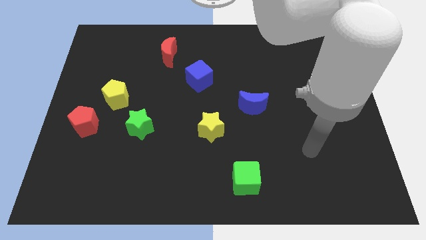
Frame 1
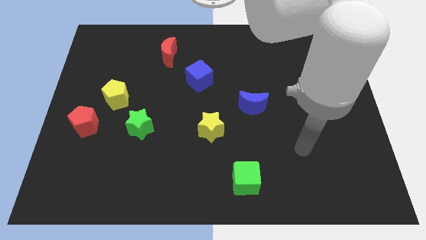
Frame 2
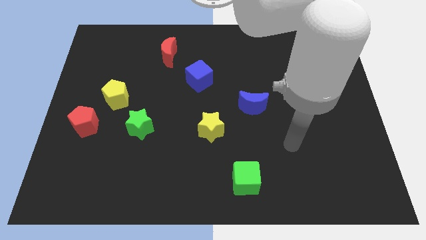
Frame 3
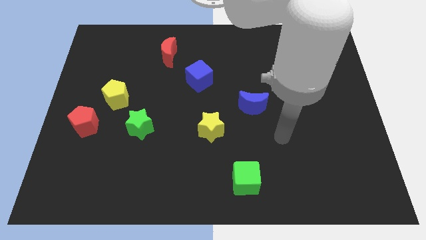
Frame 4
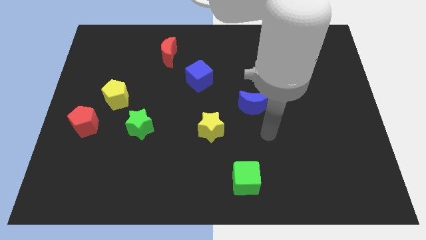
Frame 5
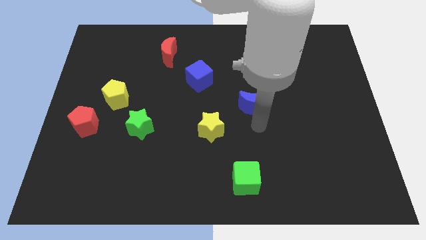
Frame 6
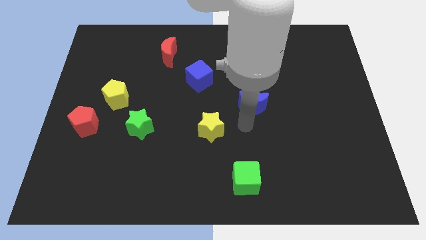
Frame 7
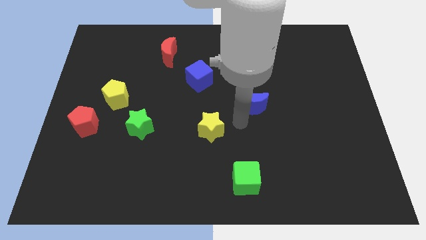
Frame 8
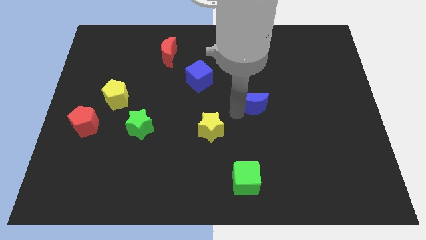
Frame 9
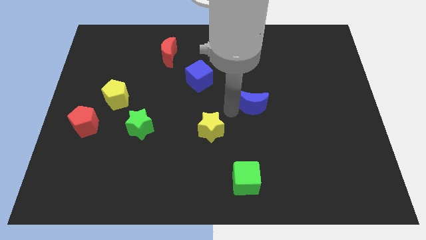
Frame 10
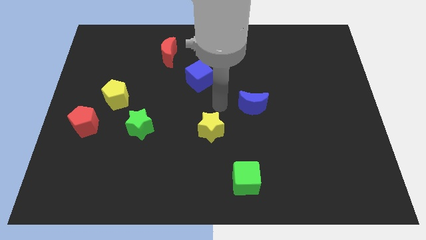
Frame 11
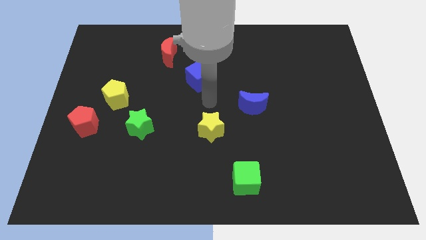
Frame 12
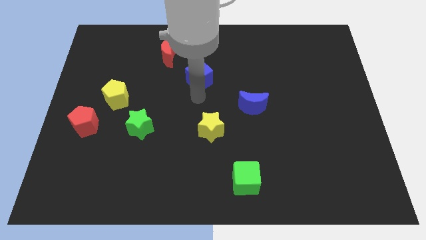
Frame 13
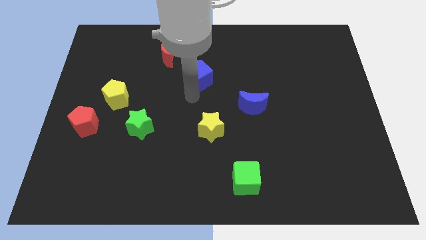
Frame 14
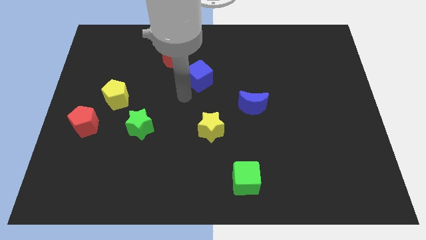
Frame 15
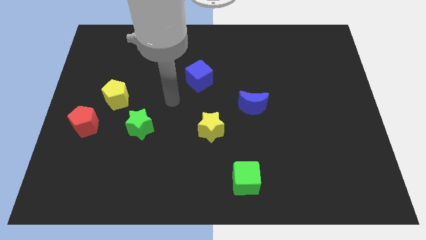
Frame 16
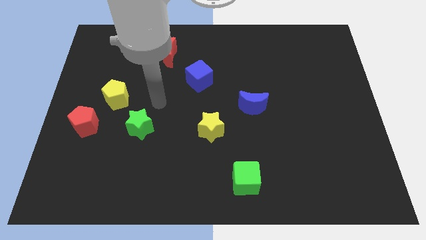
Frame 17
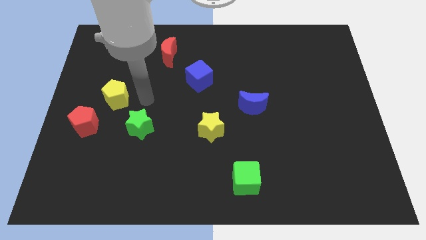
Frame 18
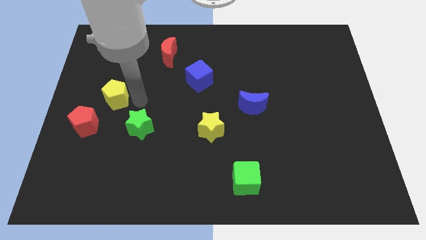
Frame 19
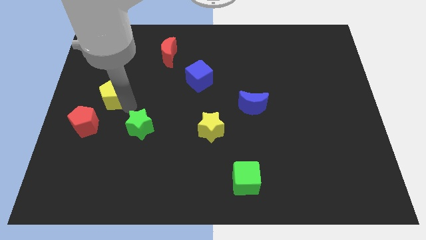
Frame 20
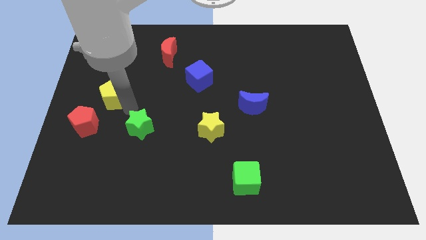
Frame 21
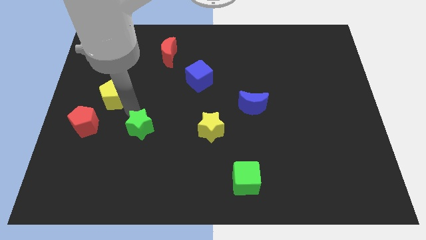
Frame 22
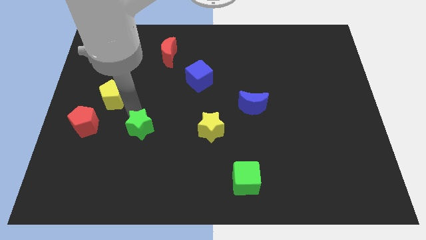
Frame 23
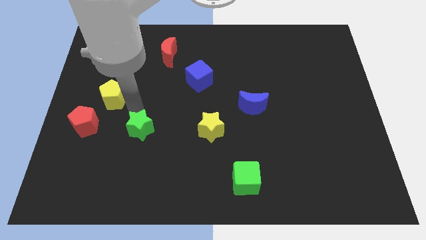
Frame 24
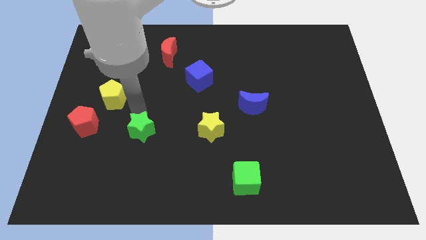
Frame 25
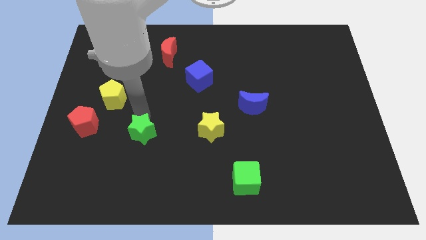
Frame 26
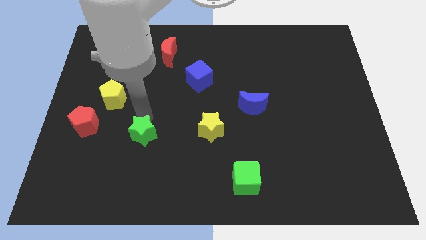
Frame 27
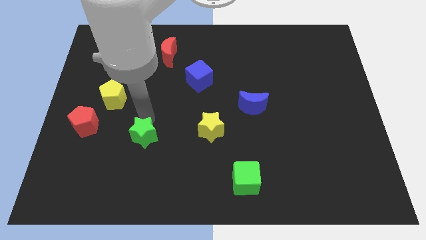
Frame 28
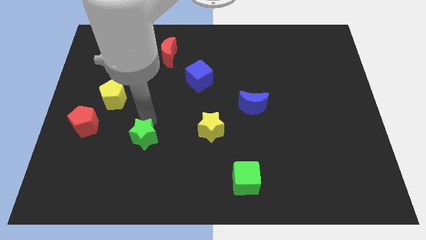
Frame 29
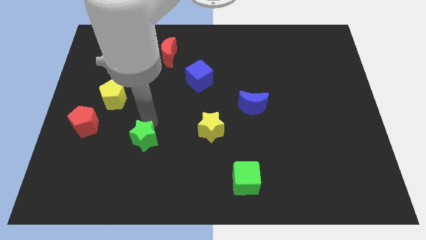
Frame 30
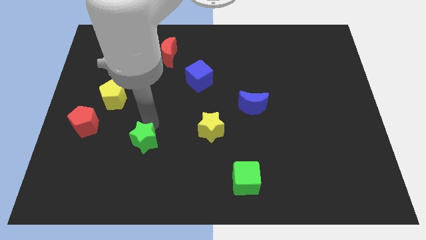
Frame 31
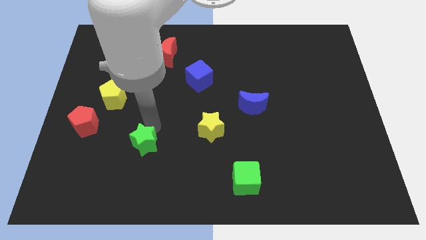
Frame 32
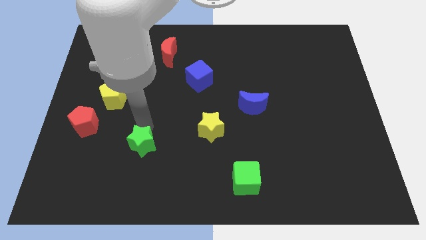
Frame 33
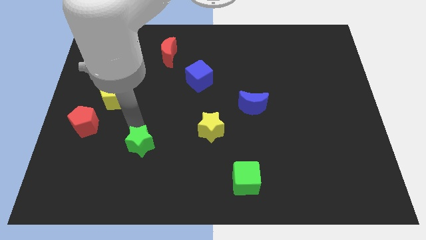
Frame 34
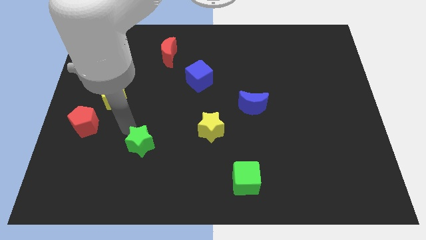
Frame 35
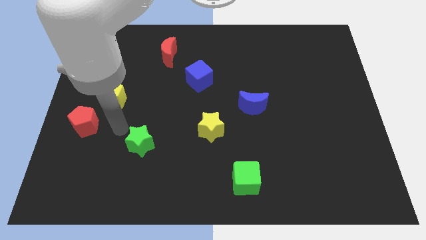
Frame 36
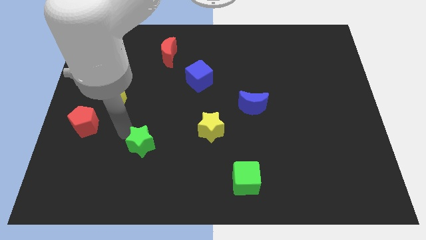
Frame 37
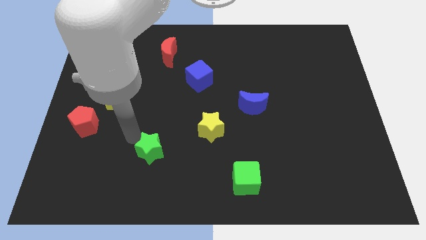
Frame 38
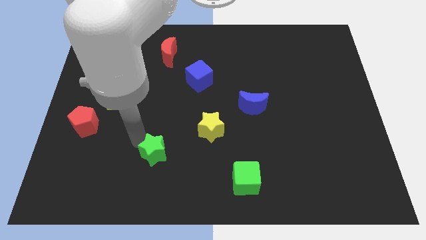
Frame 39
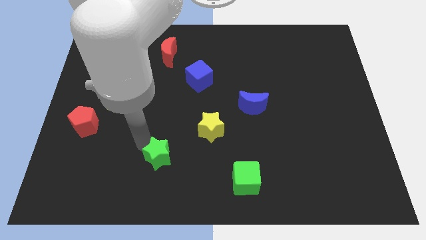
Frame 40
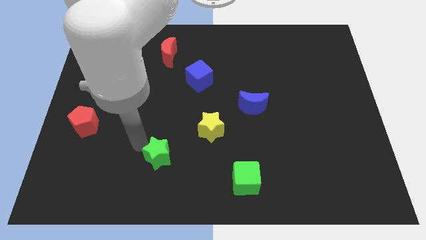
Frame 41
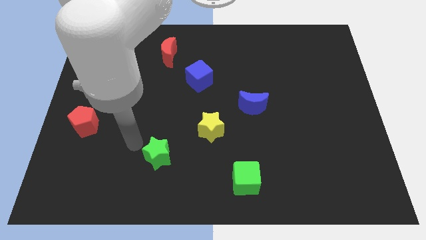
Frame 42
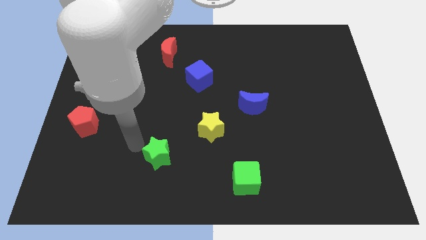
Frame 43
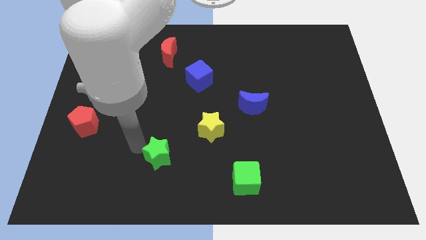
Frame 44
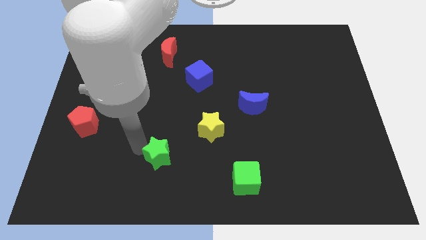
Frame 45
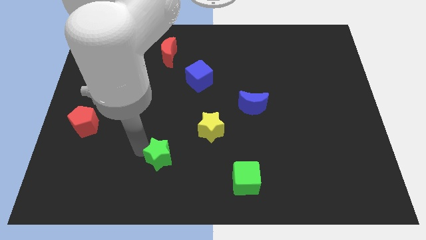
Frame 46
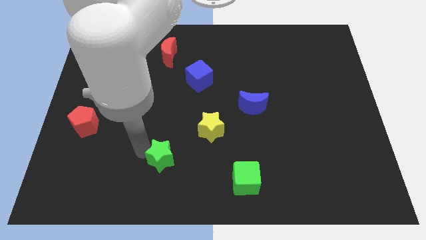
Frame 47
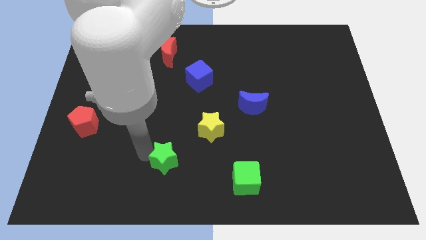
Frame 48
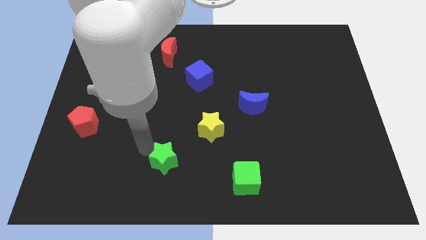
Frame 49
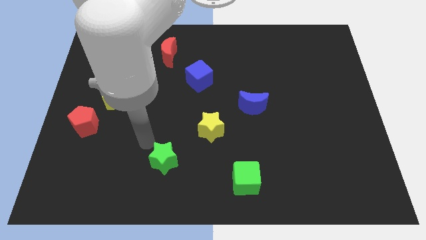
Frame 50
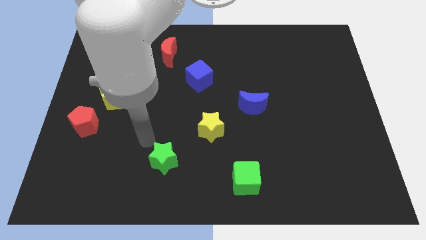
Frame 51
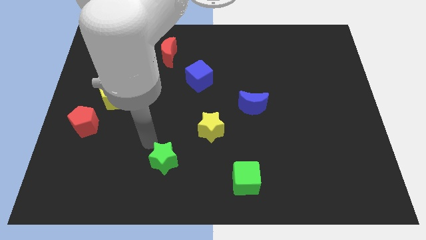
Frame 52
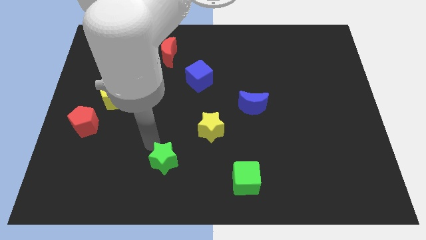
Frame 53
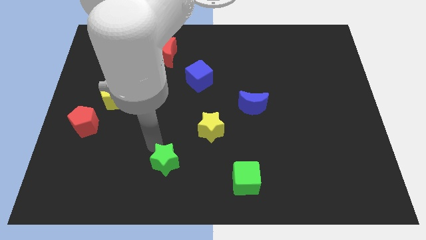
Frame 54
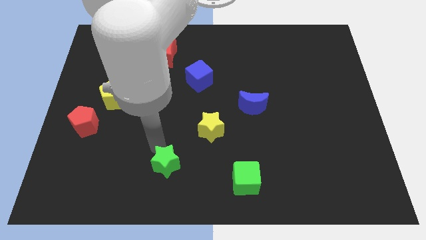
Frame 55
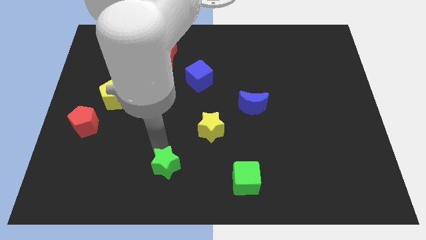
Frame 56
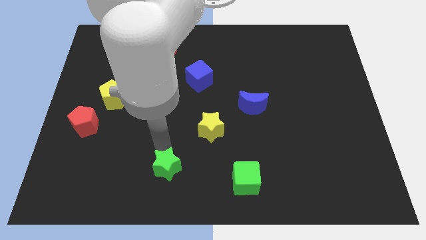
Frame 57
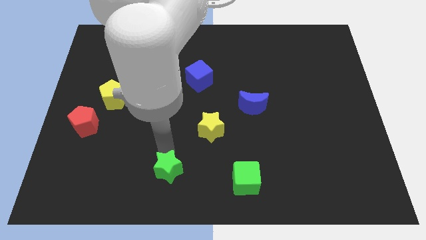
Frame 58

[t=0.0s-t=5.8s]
put the green star to the bottom side

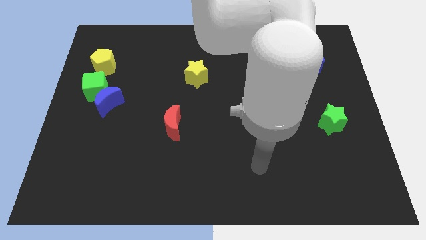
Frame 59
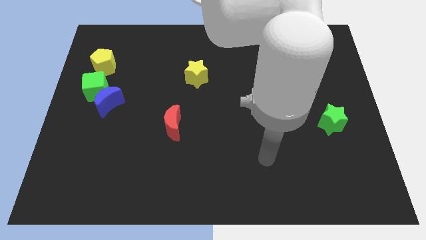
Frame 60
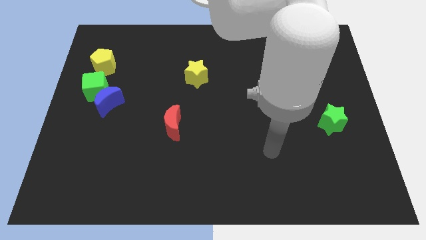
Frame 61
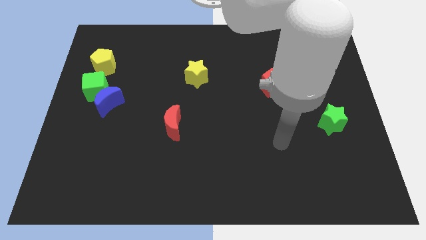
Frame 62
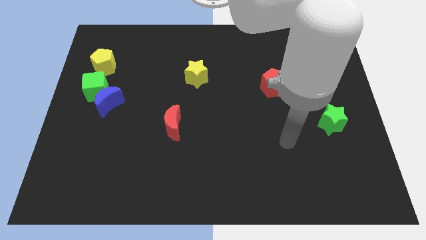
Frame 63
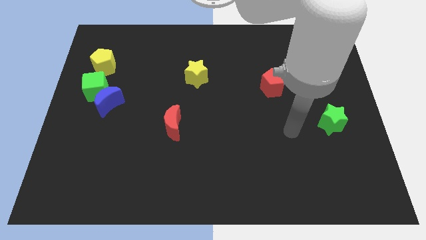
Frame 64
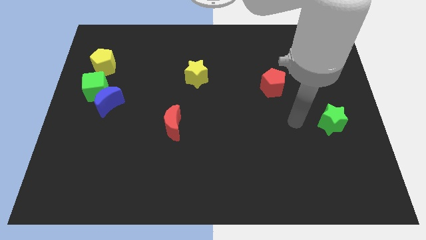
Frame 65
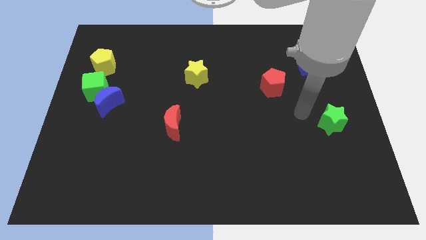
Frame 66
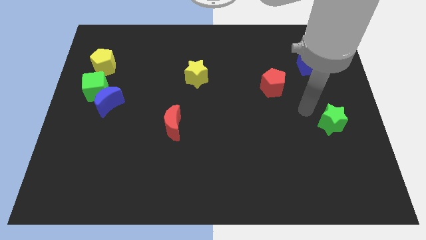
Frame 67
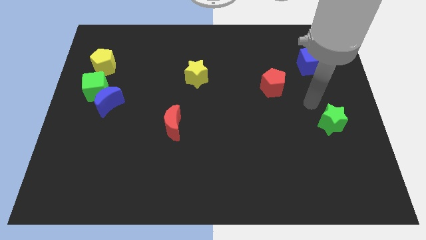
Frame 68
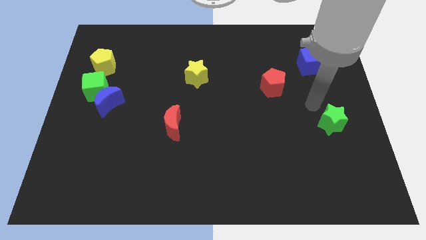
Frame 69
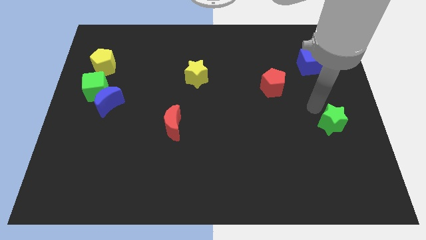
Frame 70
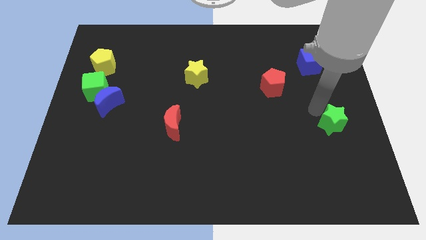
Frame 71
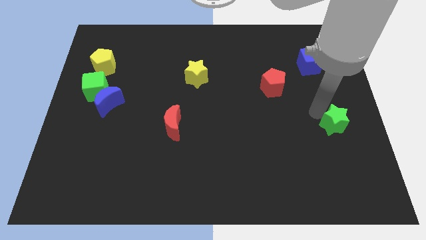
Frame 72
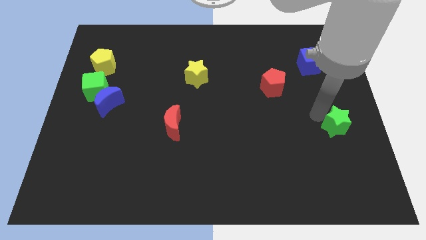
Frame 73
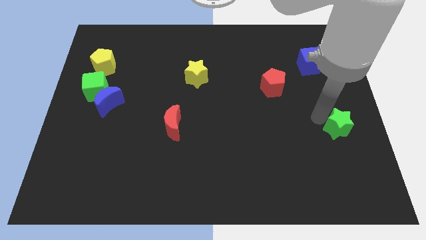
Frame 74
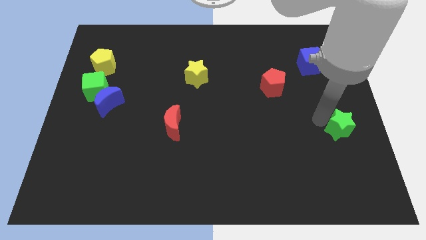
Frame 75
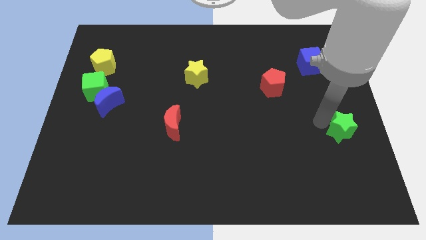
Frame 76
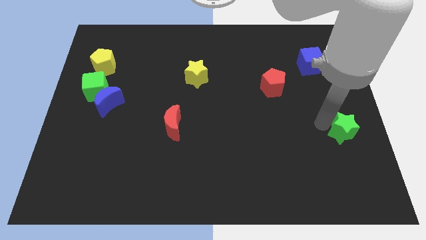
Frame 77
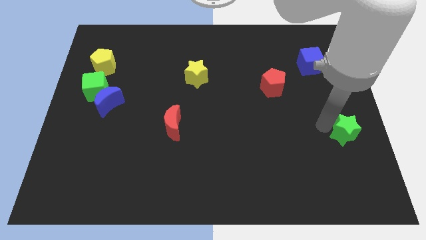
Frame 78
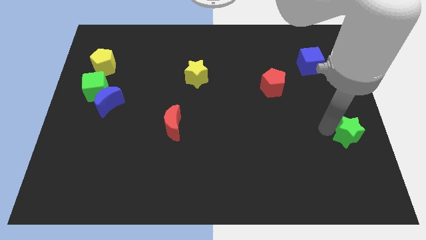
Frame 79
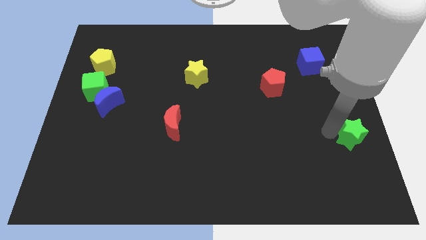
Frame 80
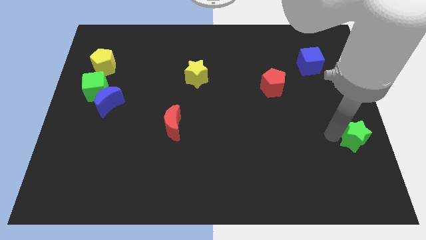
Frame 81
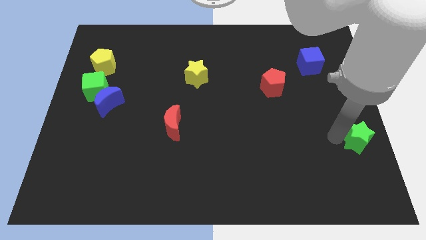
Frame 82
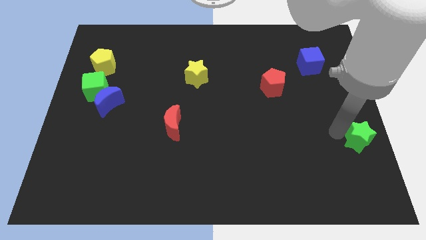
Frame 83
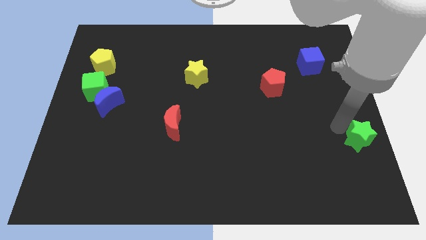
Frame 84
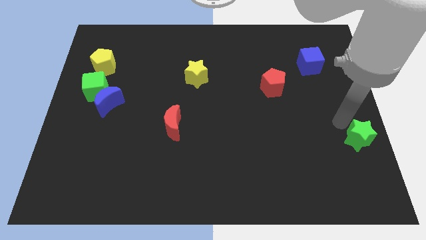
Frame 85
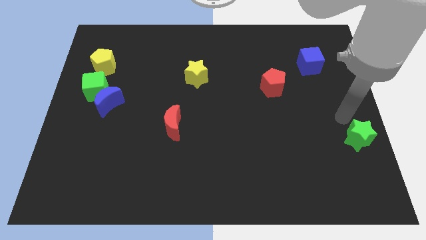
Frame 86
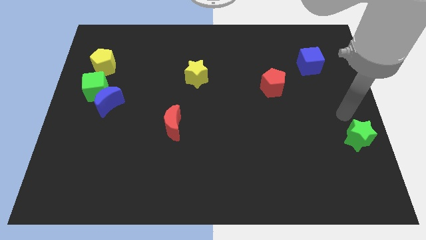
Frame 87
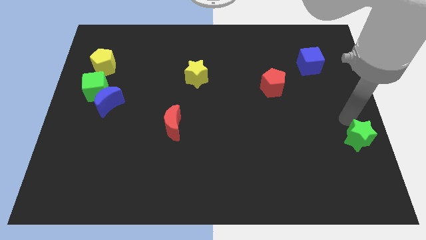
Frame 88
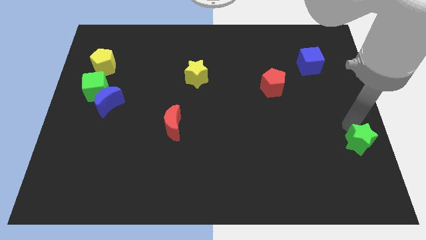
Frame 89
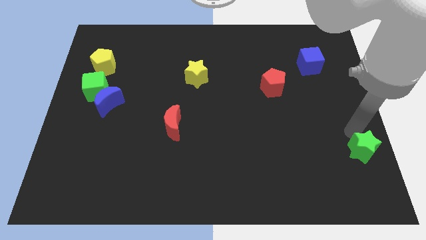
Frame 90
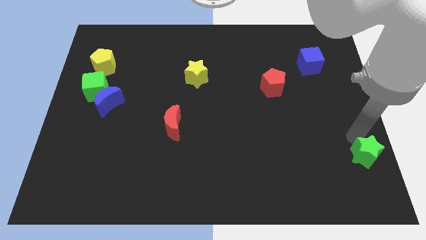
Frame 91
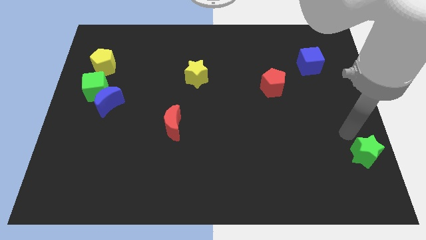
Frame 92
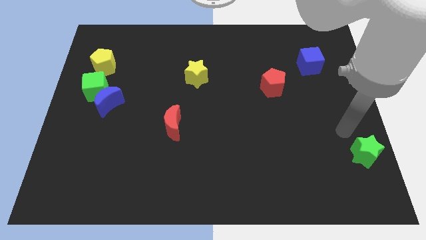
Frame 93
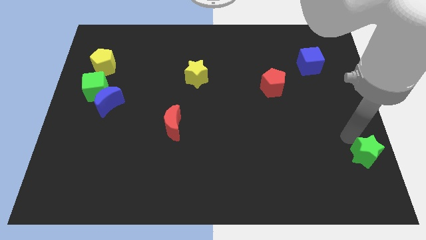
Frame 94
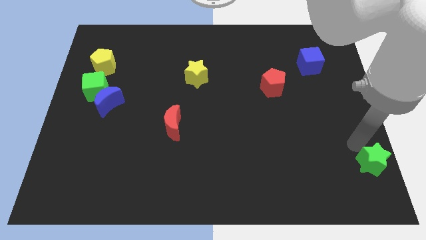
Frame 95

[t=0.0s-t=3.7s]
slide the green star to the lower right corner
